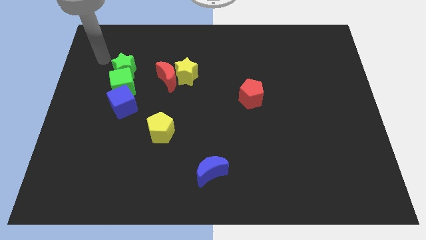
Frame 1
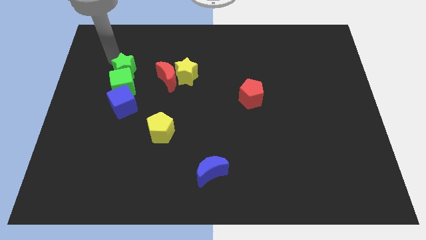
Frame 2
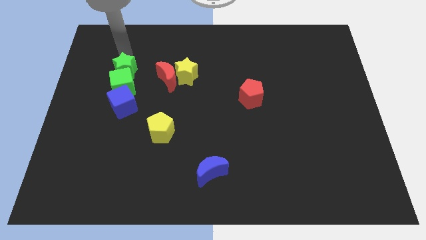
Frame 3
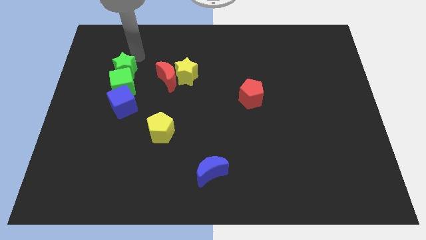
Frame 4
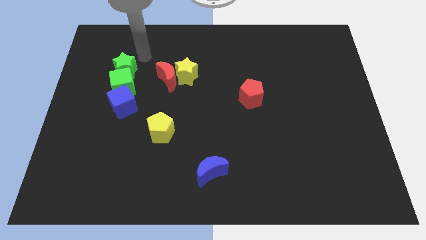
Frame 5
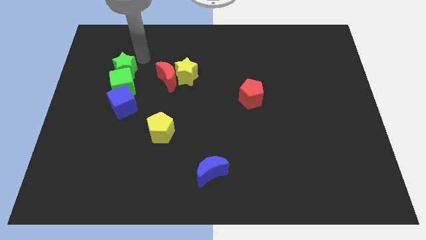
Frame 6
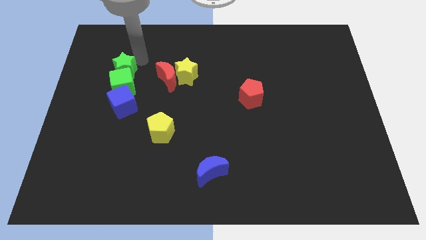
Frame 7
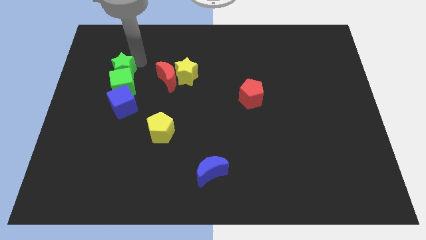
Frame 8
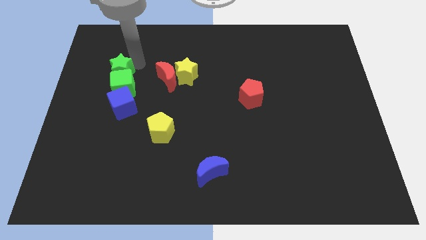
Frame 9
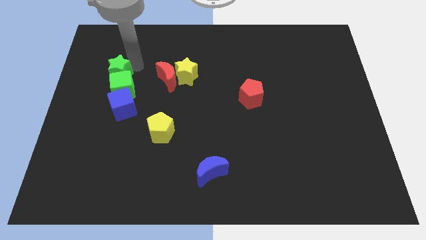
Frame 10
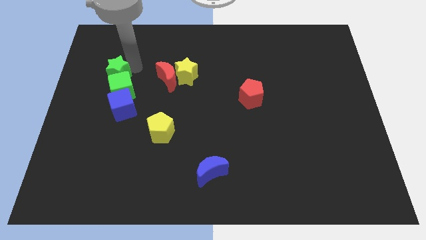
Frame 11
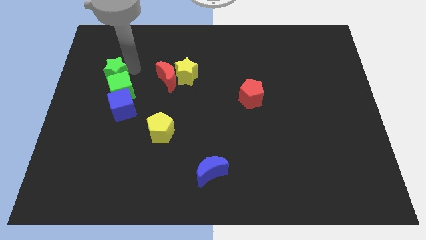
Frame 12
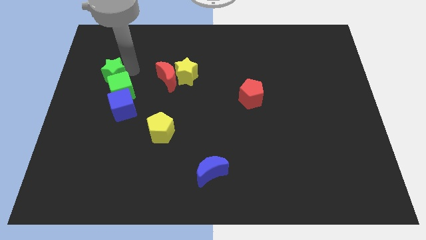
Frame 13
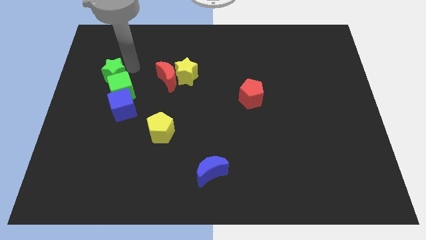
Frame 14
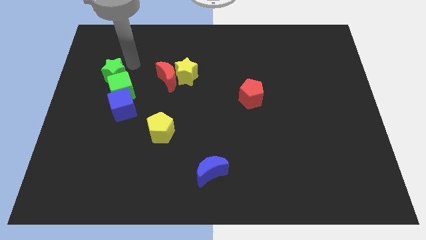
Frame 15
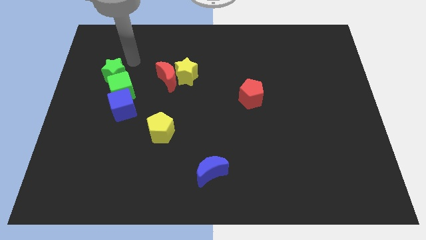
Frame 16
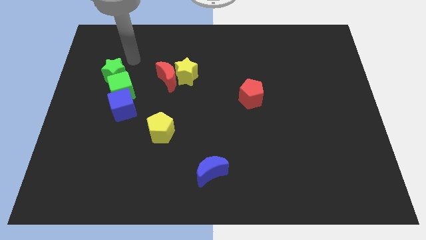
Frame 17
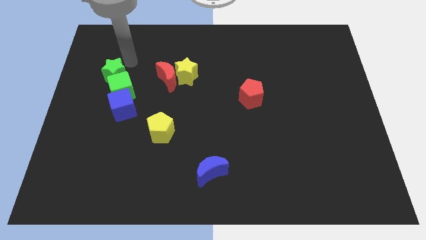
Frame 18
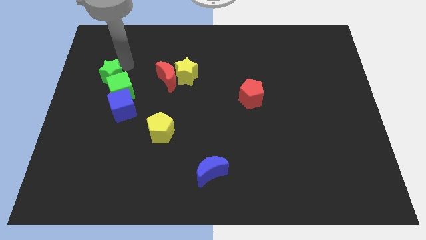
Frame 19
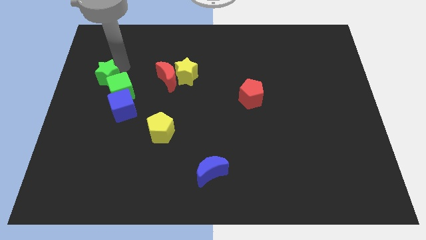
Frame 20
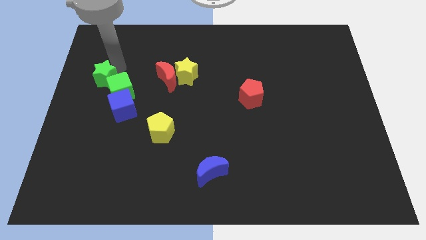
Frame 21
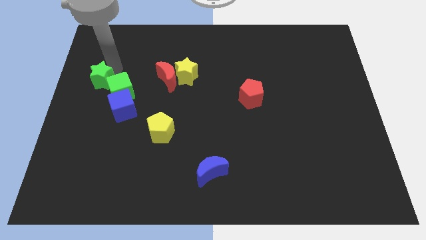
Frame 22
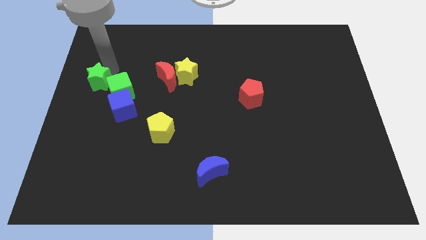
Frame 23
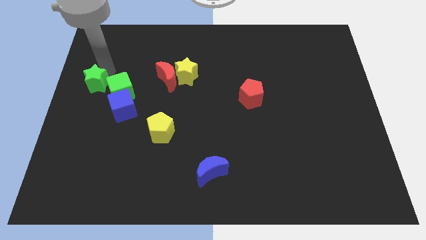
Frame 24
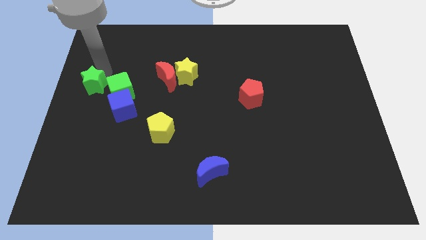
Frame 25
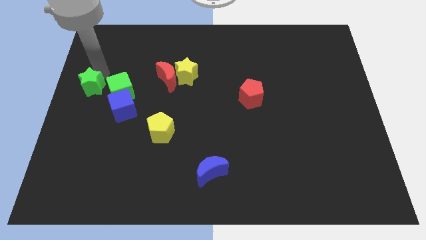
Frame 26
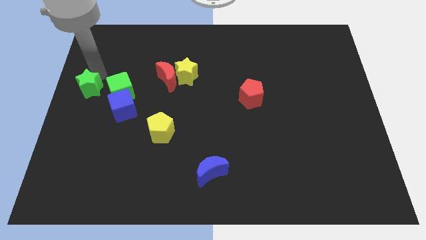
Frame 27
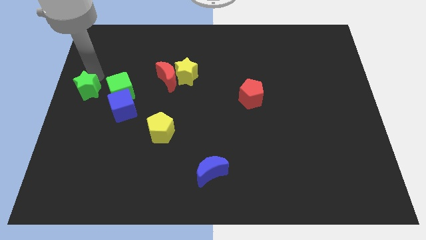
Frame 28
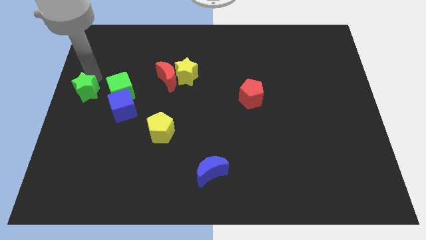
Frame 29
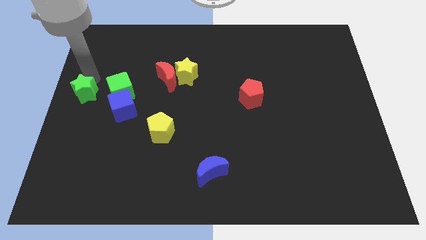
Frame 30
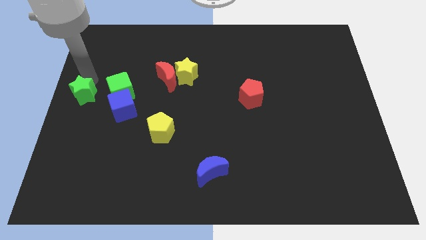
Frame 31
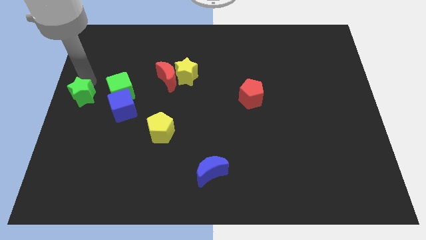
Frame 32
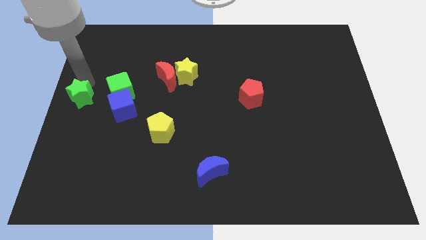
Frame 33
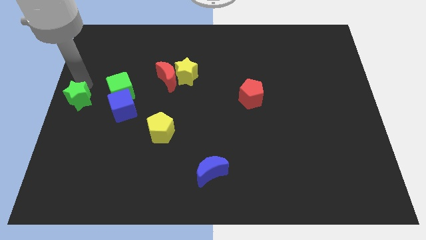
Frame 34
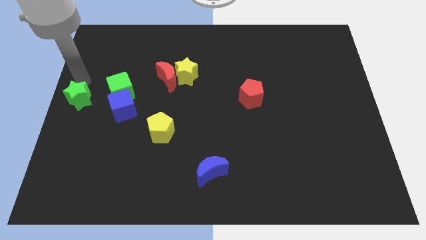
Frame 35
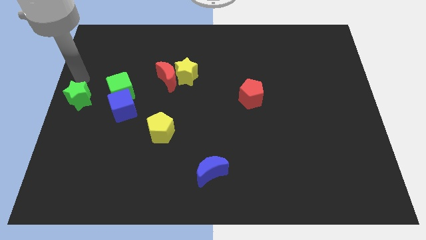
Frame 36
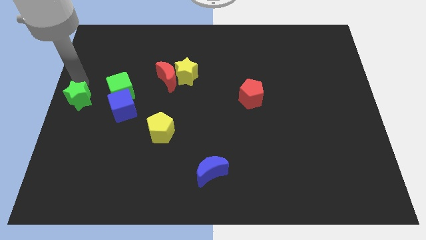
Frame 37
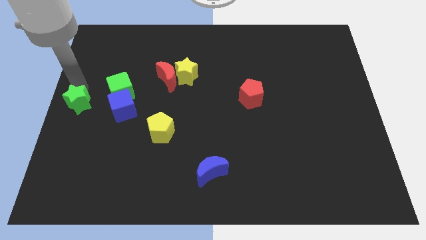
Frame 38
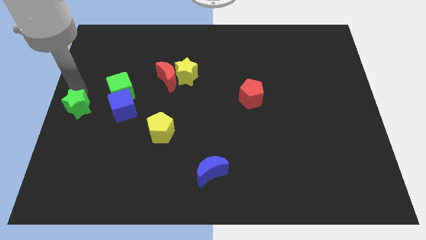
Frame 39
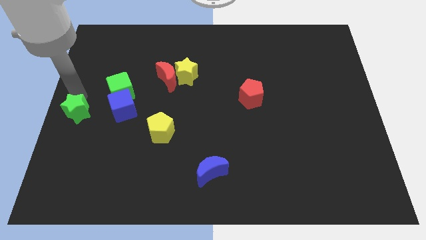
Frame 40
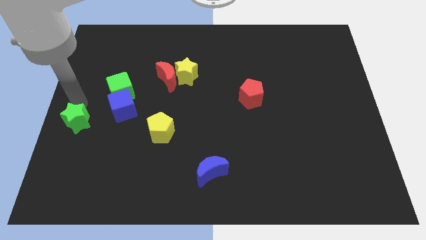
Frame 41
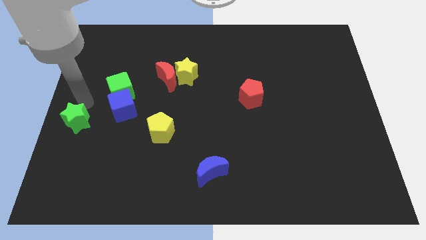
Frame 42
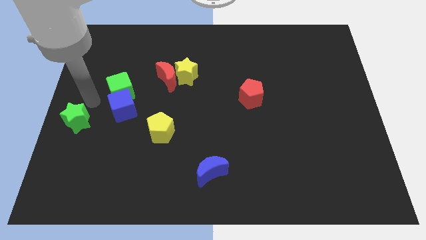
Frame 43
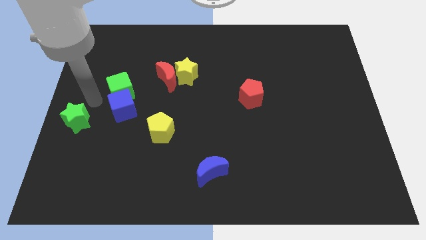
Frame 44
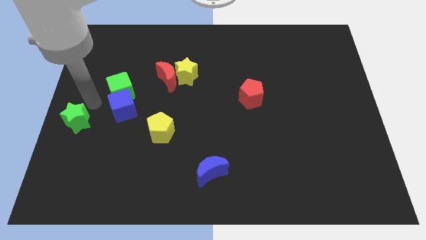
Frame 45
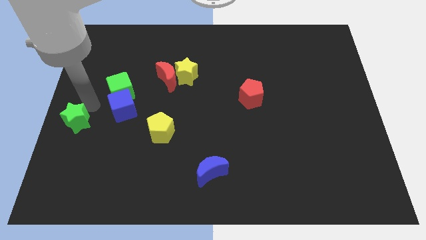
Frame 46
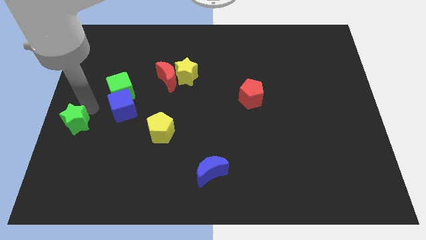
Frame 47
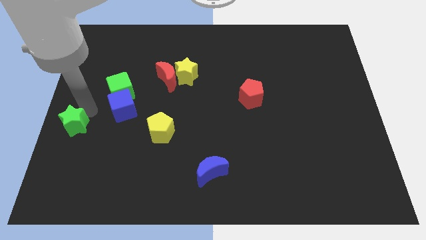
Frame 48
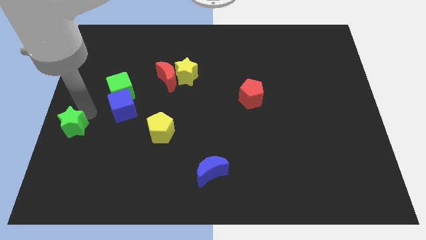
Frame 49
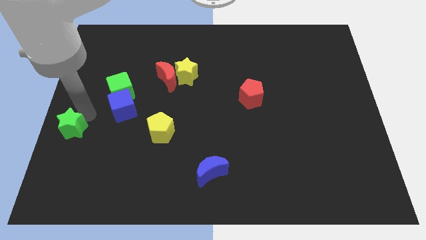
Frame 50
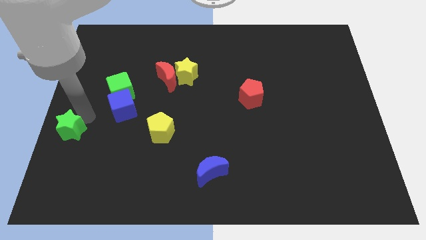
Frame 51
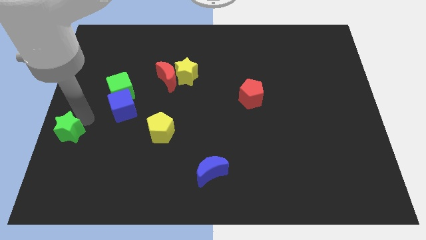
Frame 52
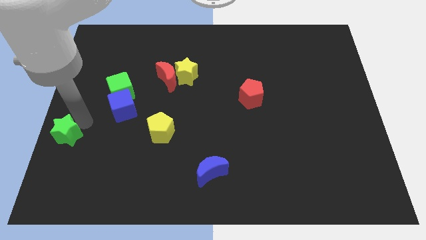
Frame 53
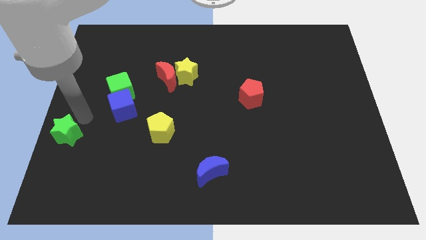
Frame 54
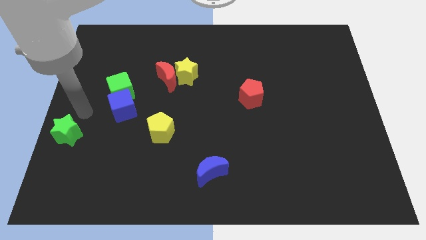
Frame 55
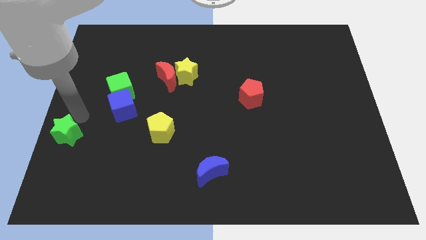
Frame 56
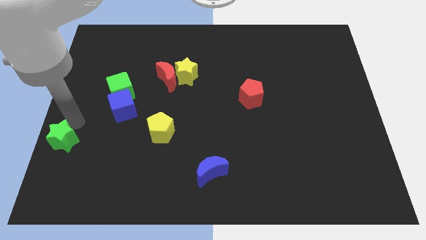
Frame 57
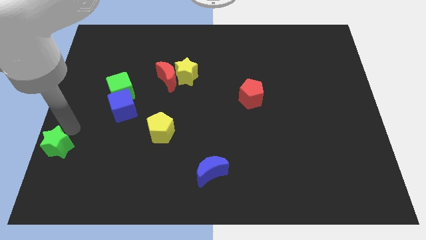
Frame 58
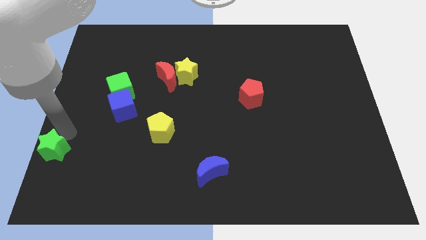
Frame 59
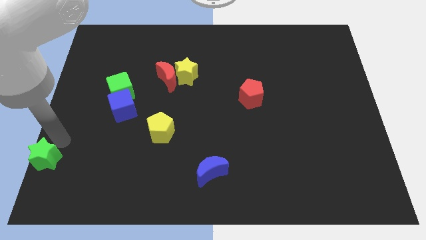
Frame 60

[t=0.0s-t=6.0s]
move the green star to the bottom left corner

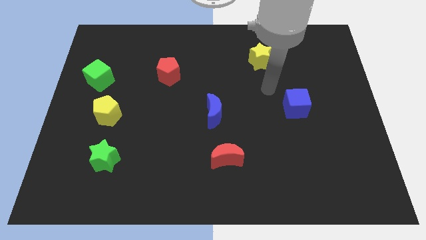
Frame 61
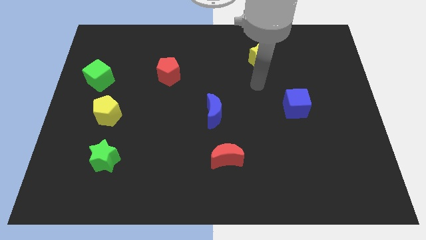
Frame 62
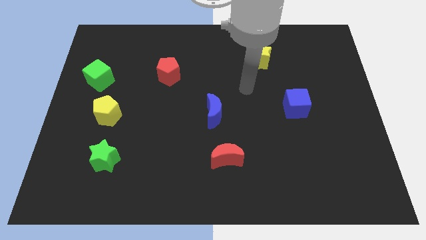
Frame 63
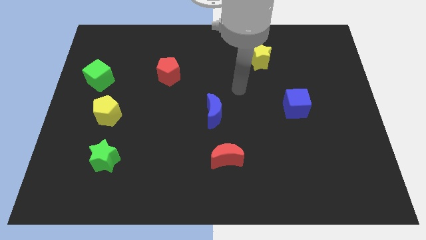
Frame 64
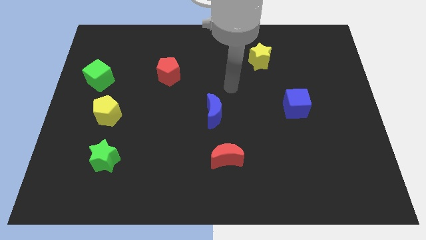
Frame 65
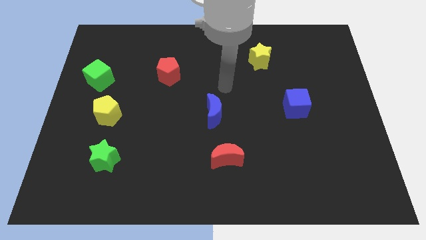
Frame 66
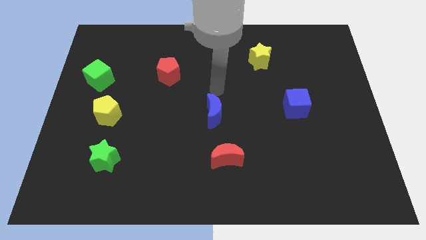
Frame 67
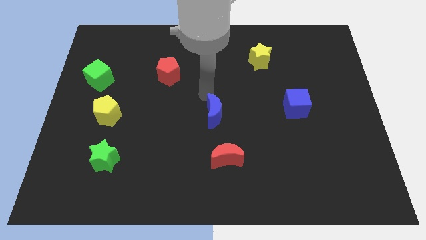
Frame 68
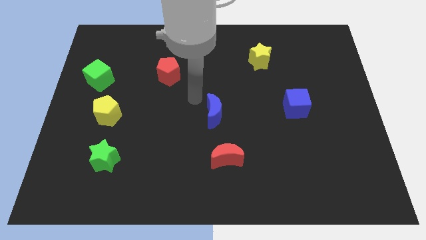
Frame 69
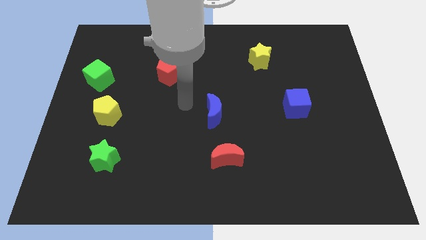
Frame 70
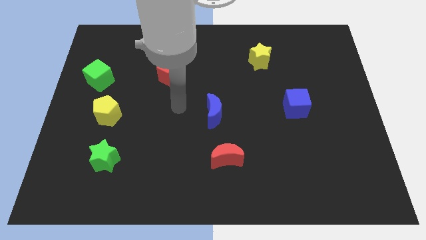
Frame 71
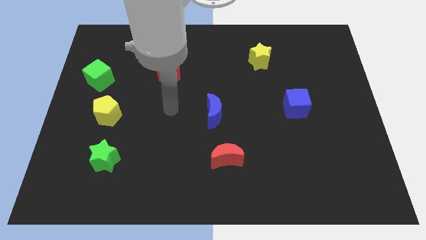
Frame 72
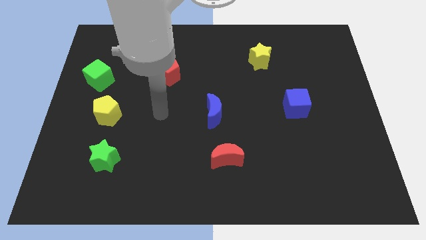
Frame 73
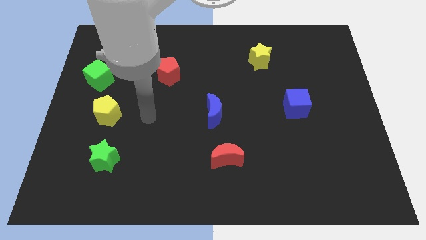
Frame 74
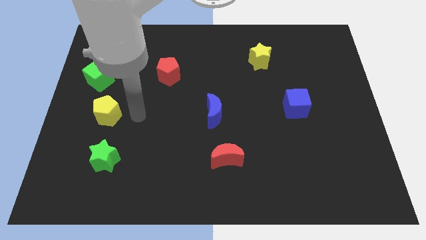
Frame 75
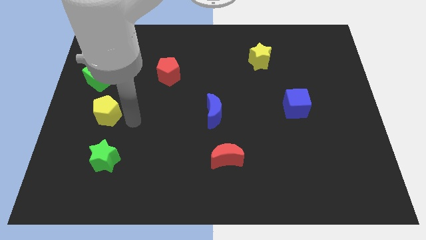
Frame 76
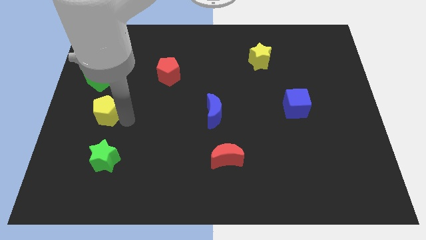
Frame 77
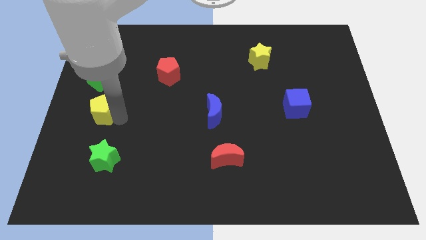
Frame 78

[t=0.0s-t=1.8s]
slide the yellow pentagon to the center left
